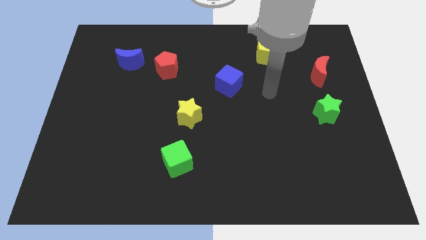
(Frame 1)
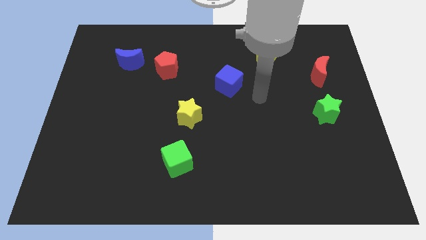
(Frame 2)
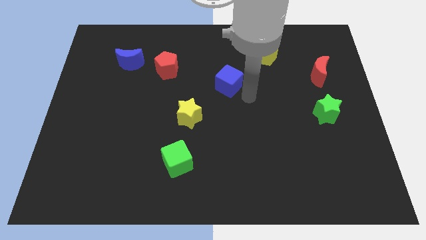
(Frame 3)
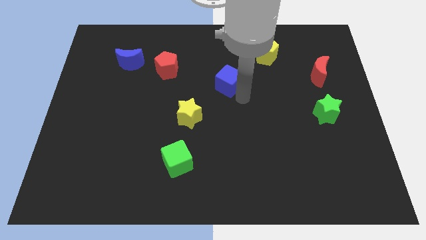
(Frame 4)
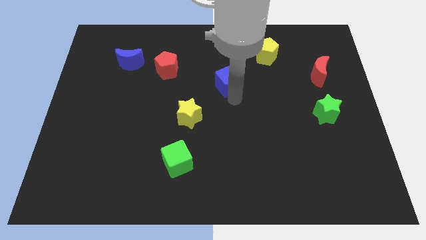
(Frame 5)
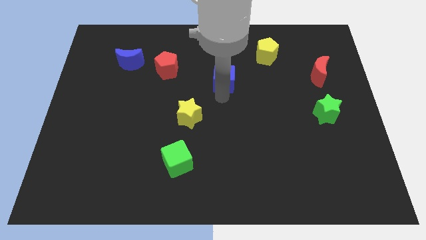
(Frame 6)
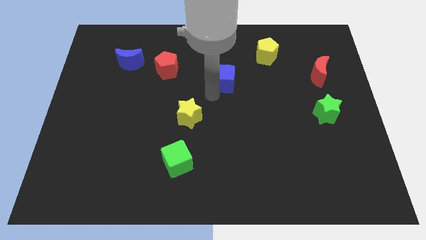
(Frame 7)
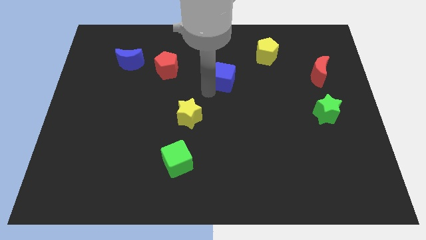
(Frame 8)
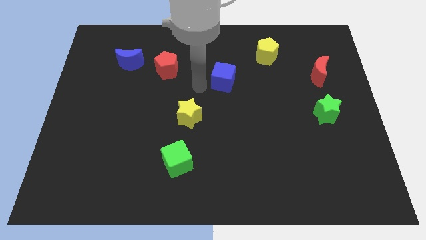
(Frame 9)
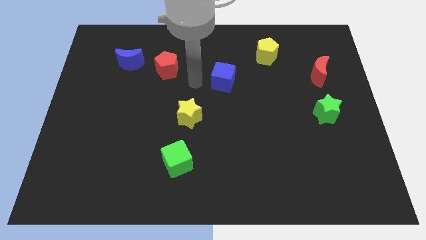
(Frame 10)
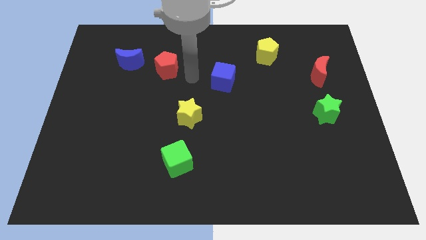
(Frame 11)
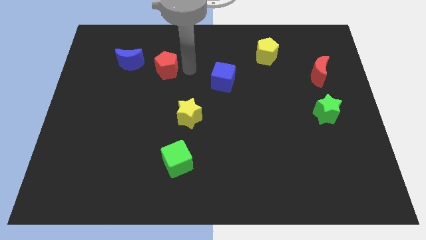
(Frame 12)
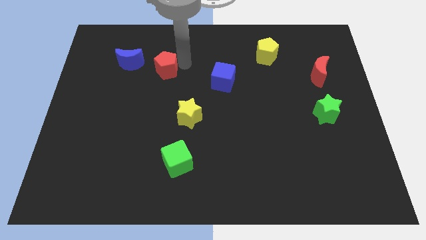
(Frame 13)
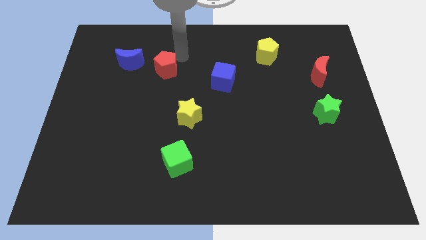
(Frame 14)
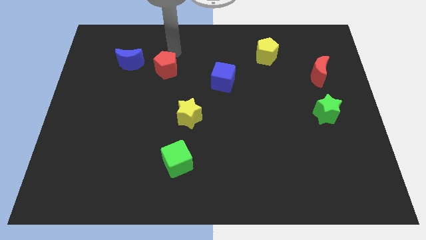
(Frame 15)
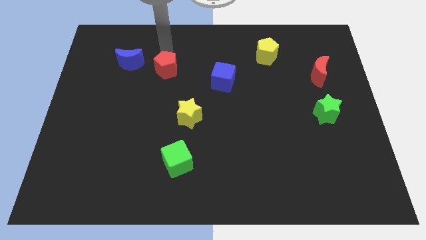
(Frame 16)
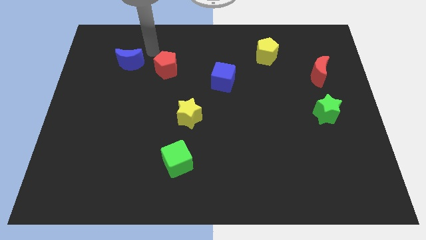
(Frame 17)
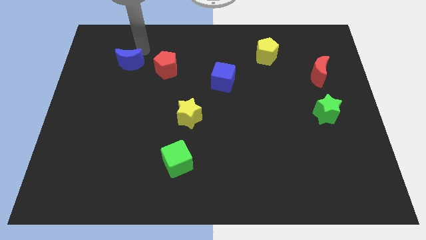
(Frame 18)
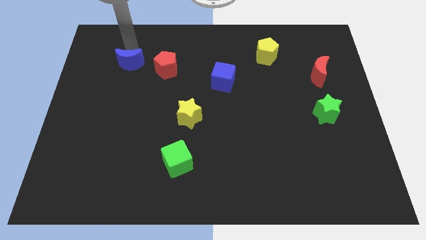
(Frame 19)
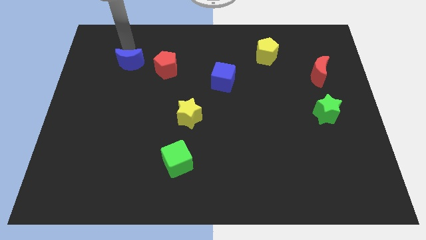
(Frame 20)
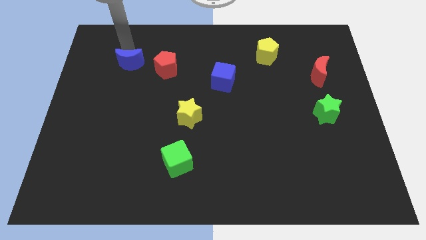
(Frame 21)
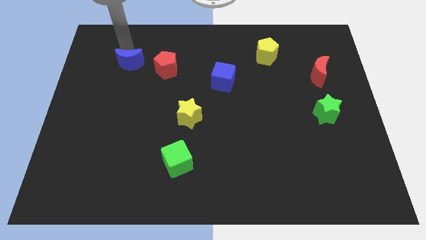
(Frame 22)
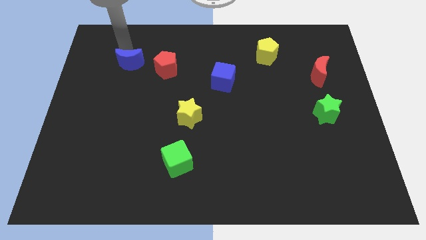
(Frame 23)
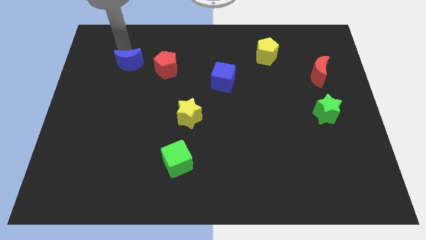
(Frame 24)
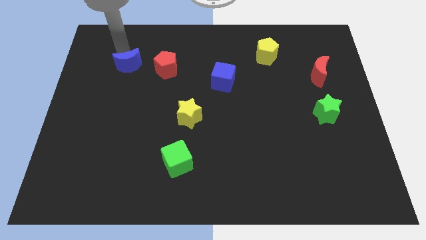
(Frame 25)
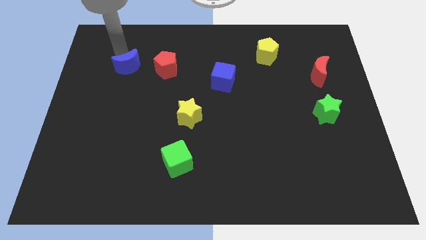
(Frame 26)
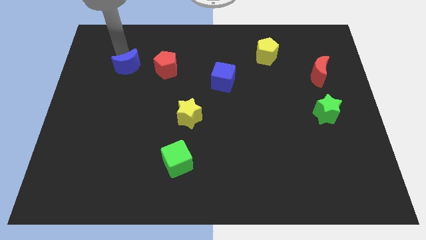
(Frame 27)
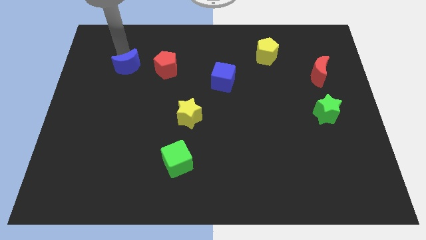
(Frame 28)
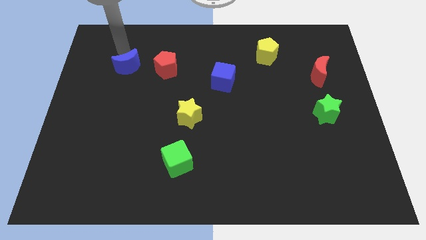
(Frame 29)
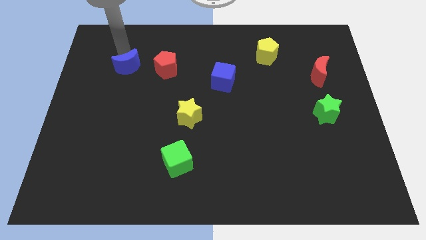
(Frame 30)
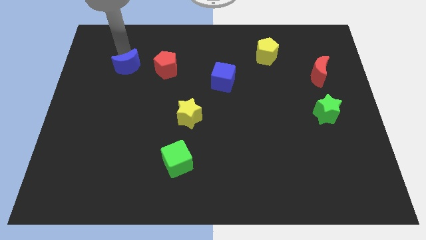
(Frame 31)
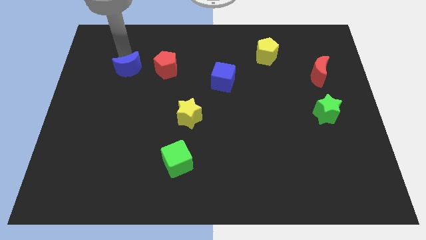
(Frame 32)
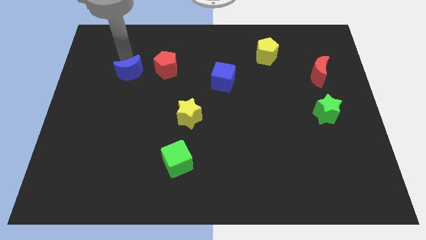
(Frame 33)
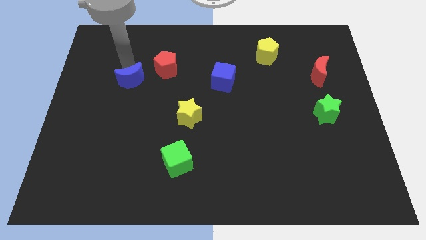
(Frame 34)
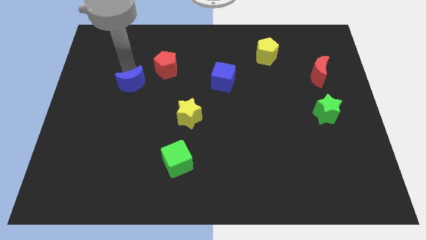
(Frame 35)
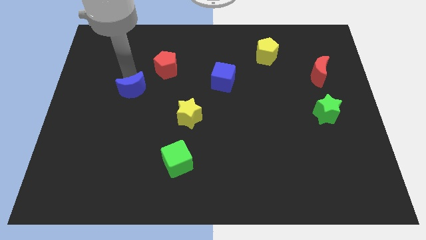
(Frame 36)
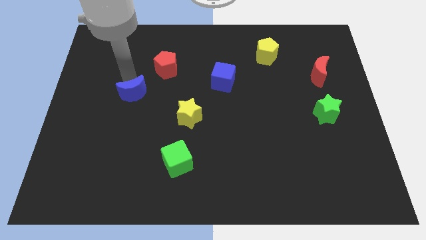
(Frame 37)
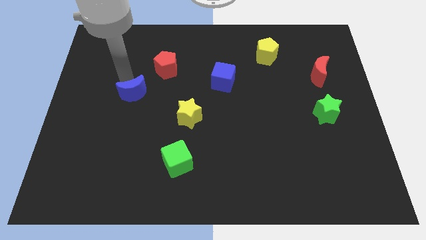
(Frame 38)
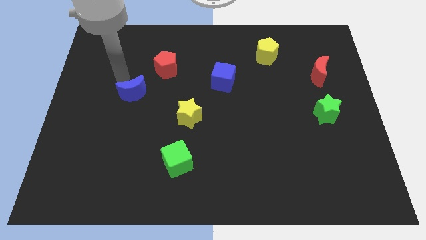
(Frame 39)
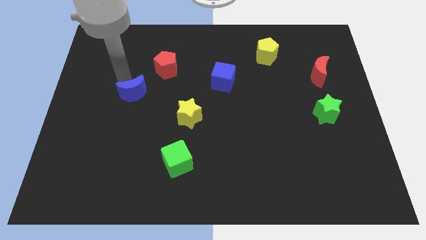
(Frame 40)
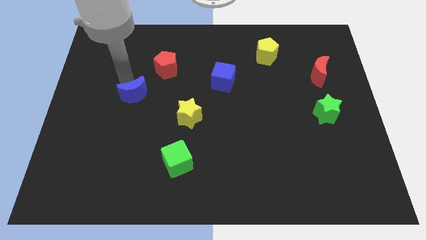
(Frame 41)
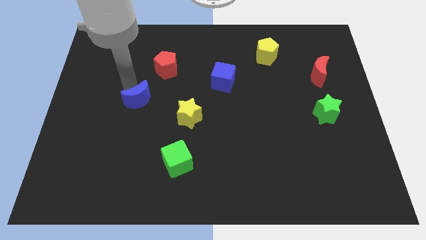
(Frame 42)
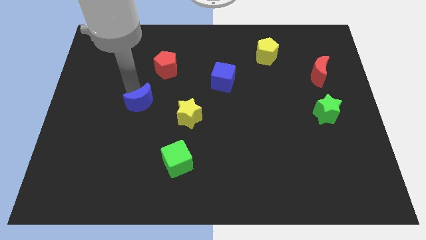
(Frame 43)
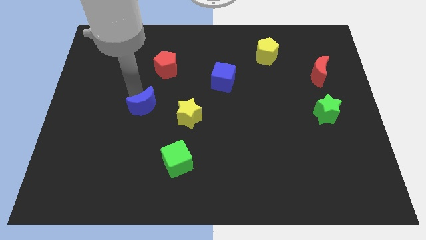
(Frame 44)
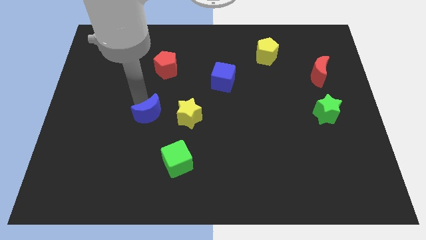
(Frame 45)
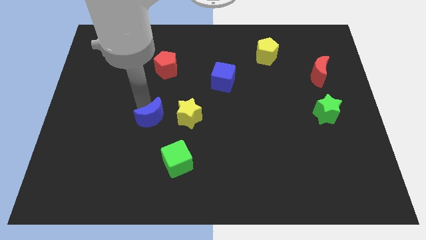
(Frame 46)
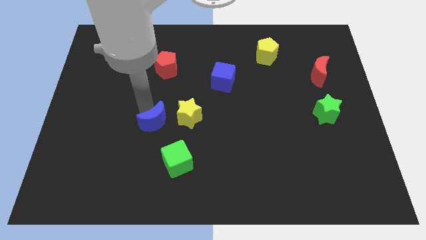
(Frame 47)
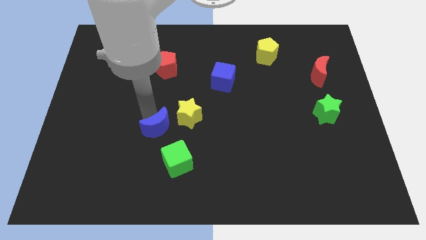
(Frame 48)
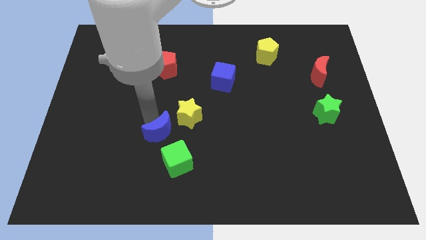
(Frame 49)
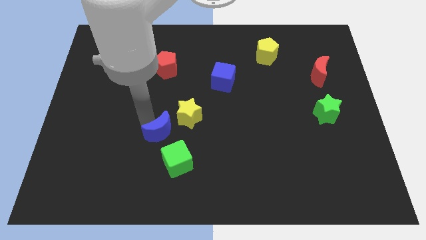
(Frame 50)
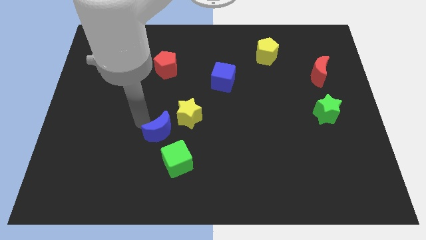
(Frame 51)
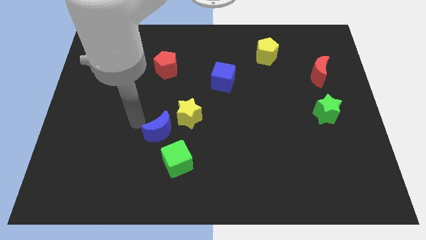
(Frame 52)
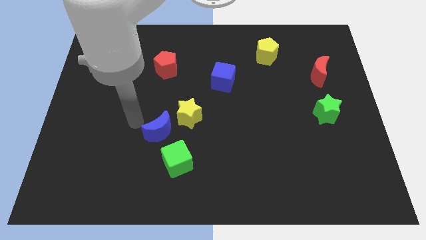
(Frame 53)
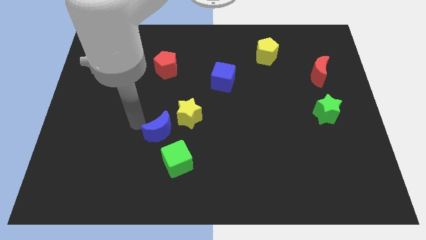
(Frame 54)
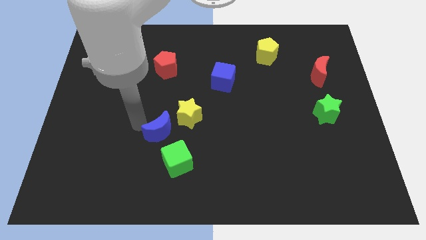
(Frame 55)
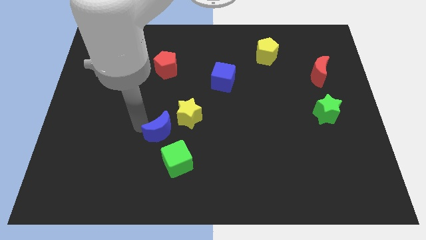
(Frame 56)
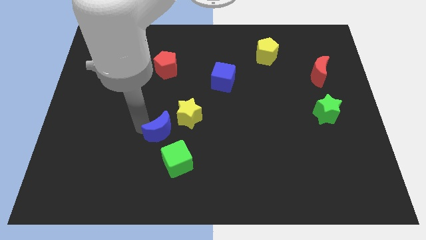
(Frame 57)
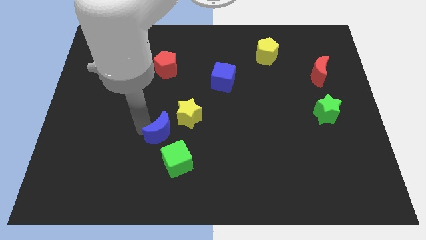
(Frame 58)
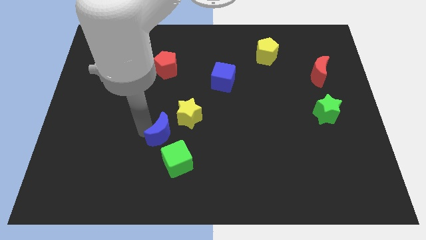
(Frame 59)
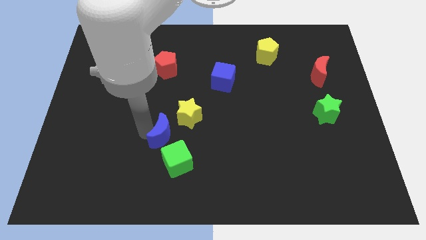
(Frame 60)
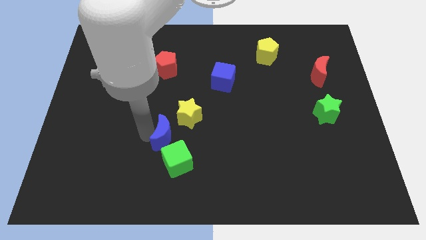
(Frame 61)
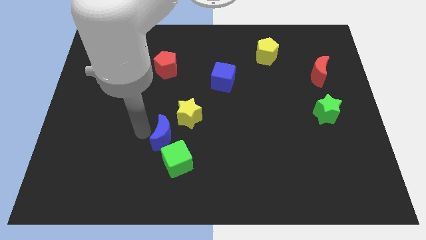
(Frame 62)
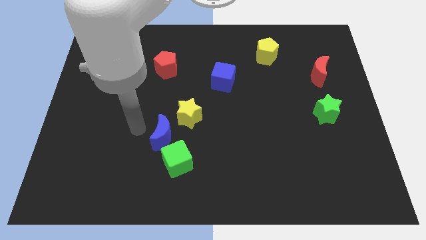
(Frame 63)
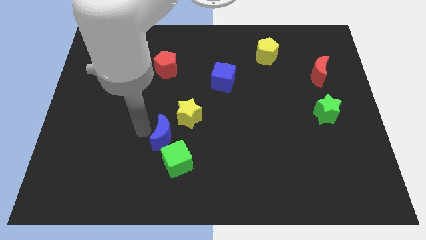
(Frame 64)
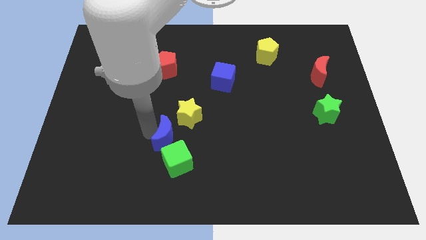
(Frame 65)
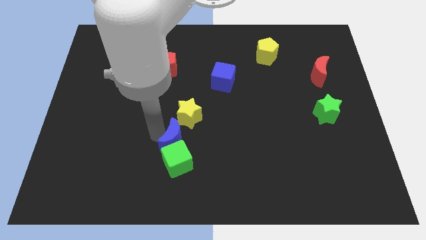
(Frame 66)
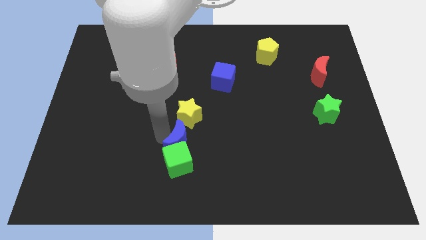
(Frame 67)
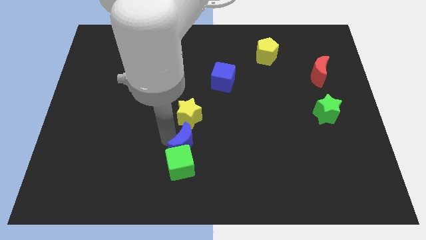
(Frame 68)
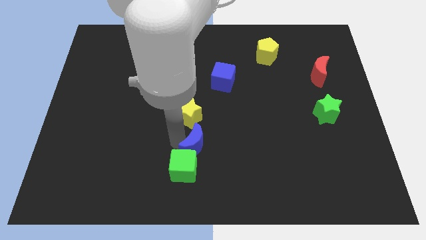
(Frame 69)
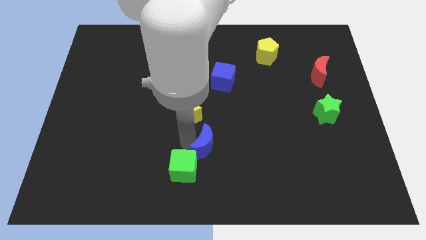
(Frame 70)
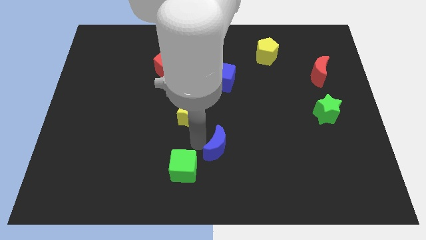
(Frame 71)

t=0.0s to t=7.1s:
slide the blue moon to the right of the green cube
